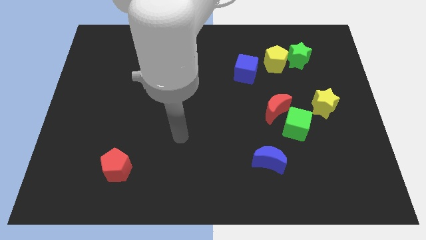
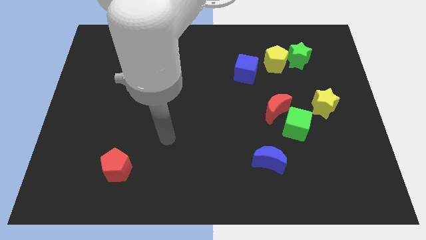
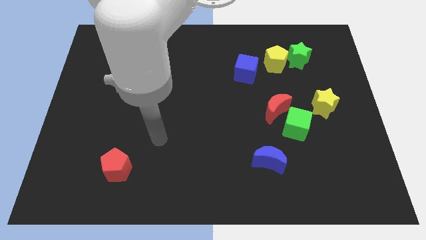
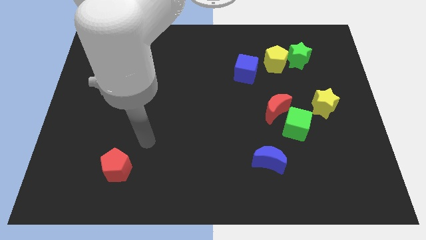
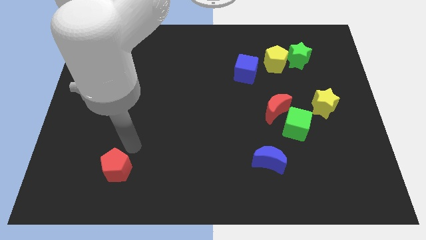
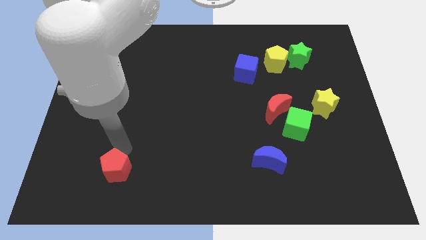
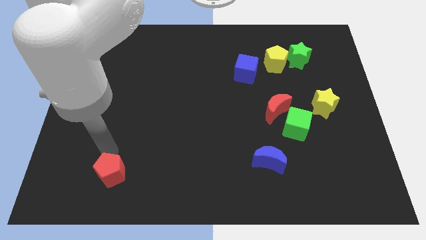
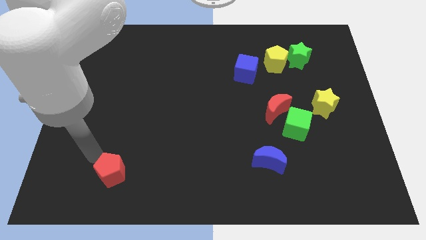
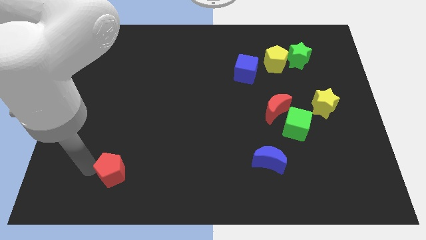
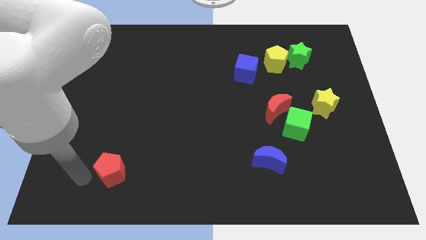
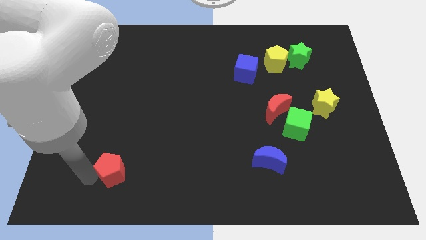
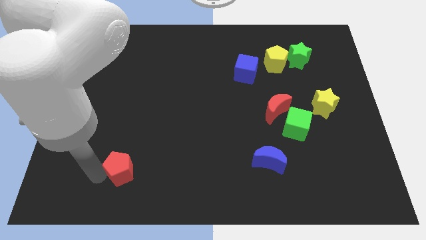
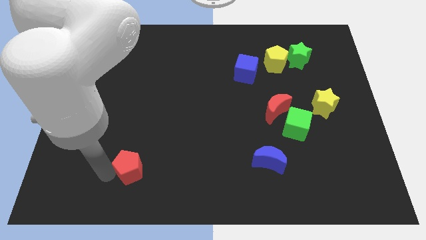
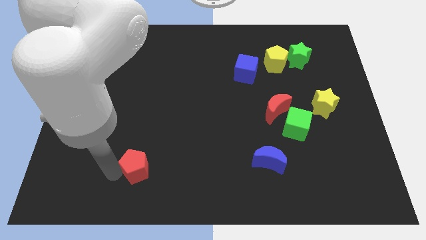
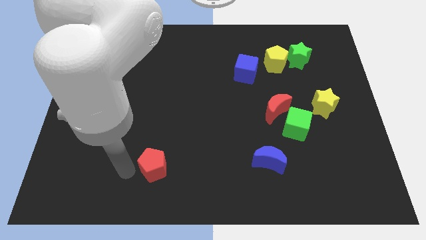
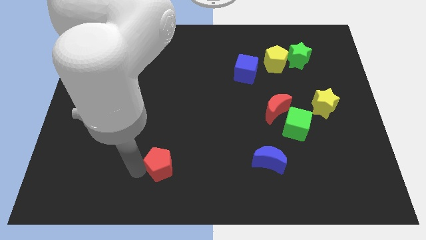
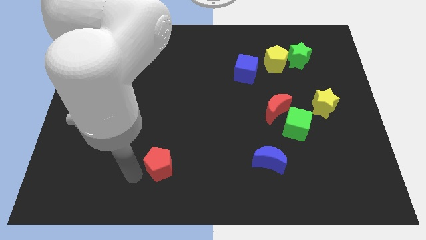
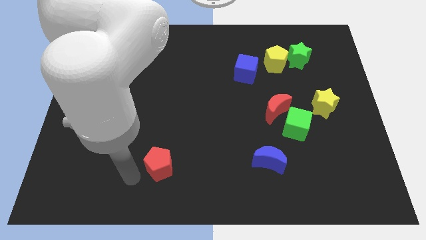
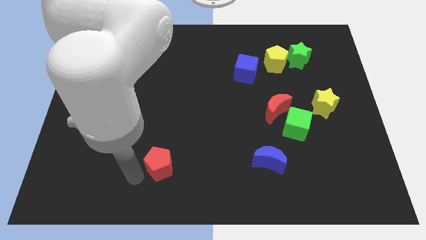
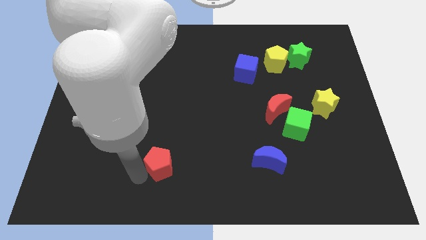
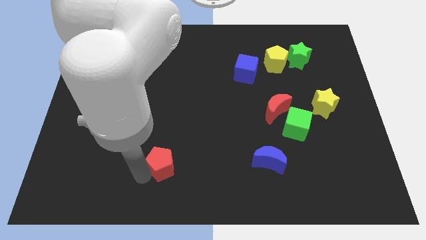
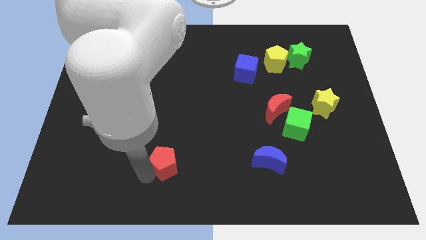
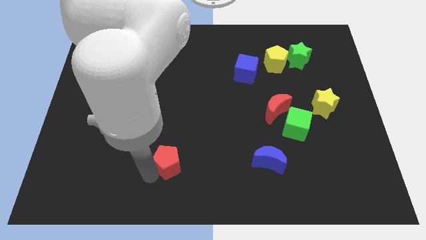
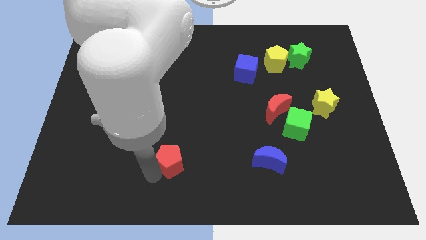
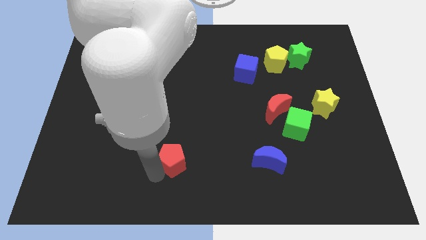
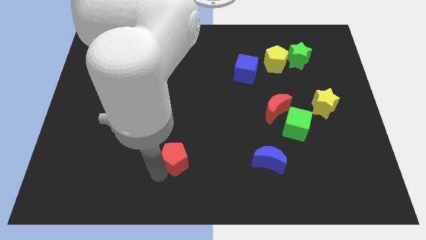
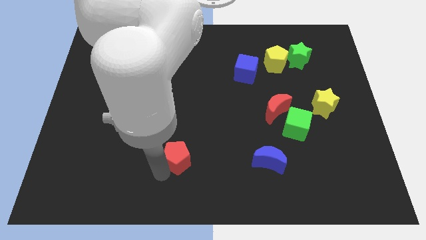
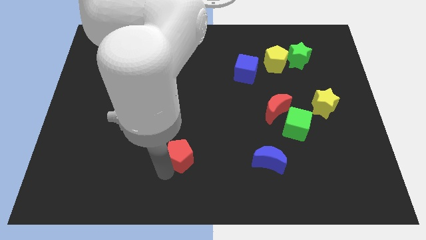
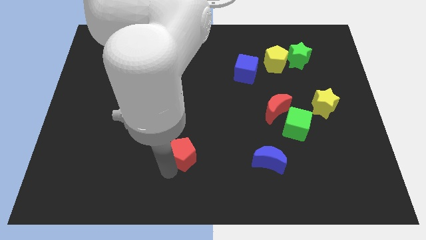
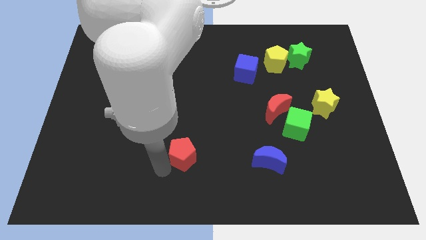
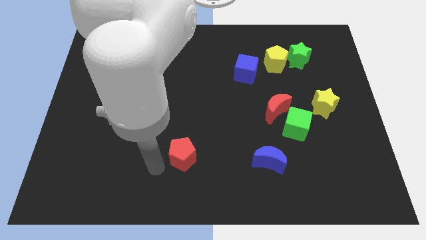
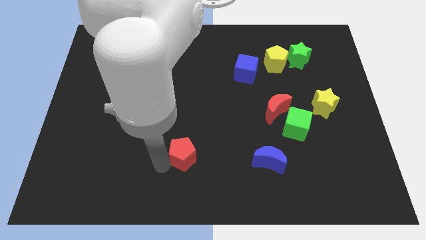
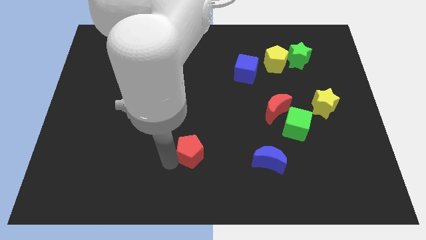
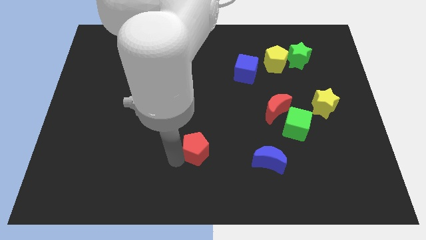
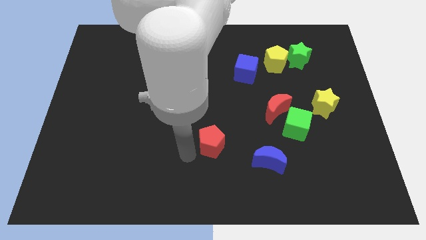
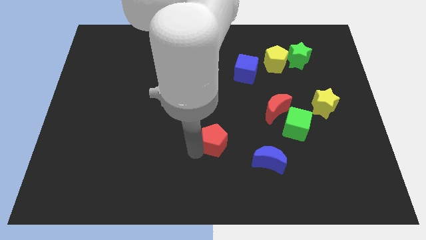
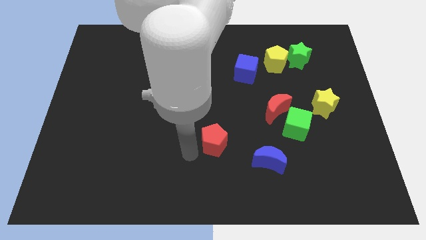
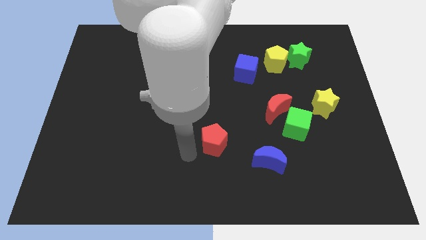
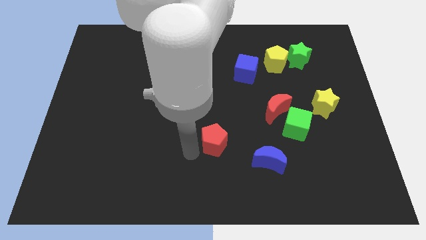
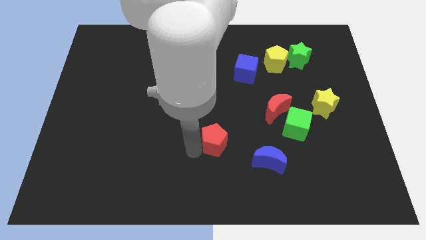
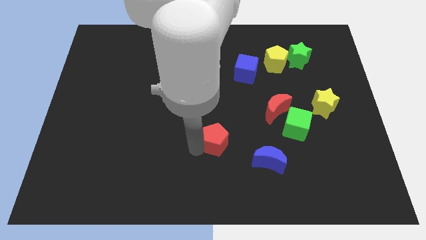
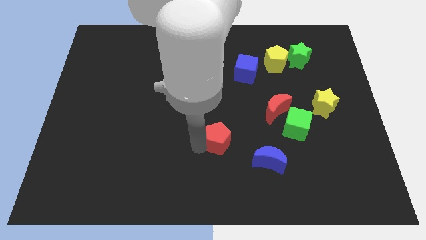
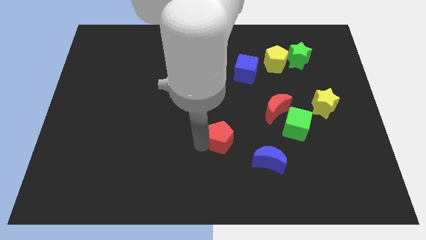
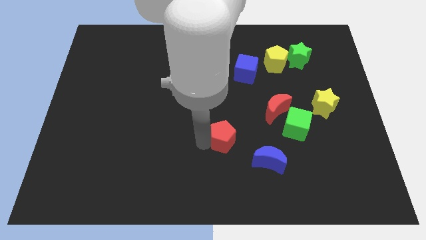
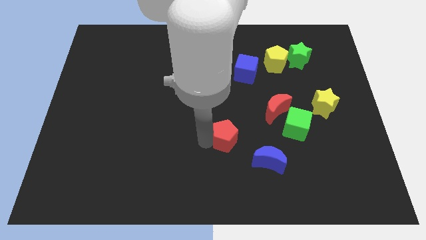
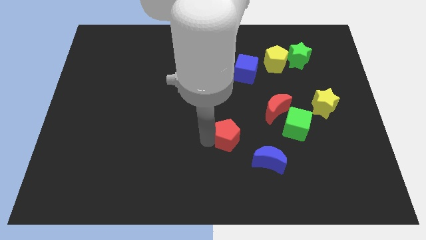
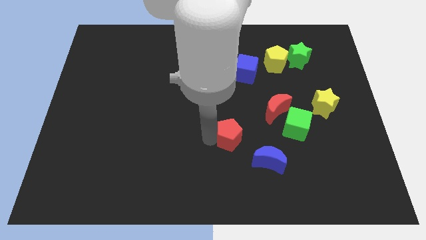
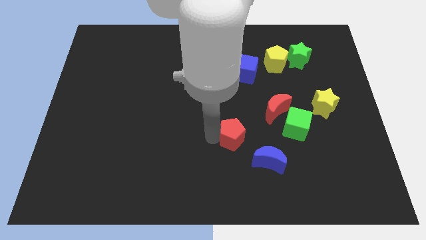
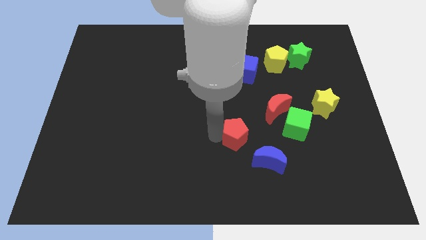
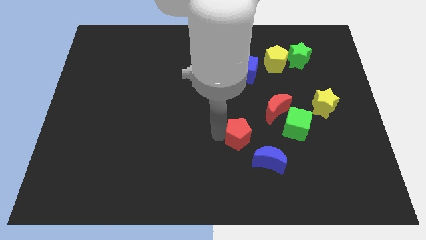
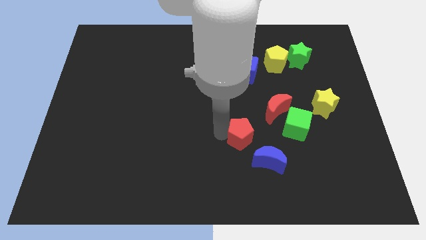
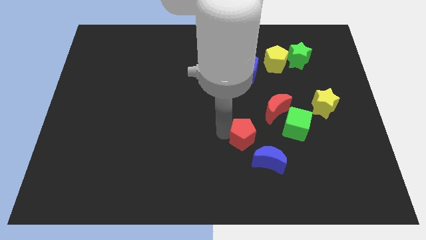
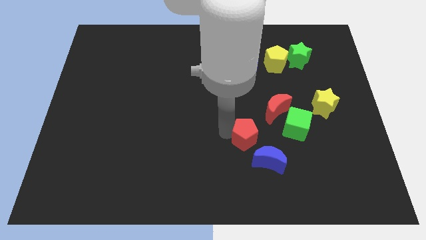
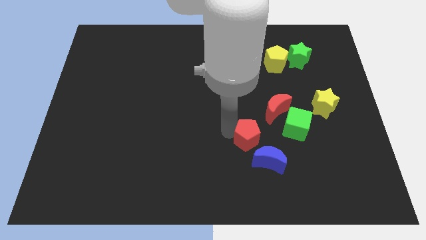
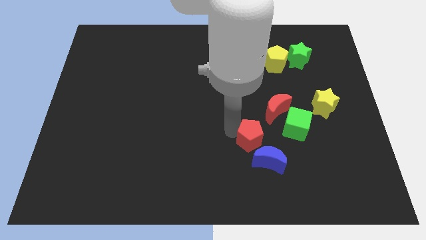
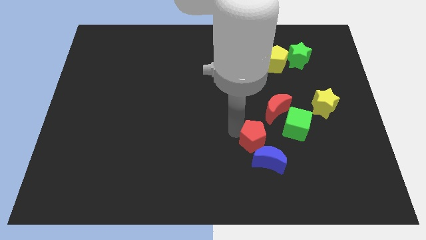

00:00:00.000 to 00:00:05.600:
move the red pentagon to the bottom left of the green cube

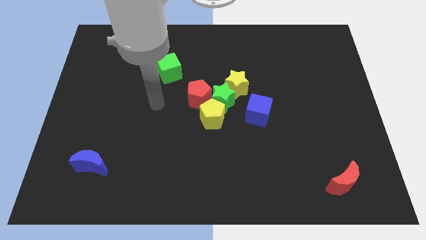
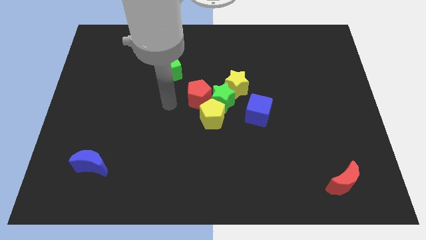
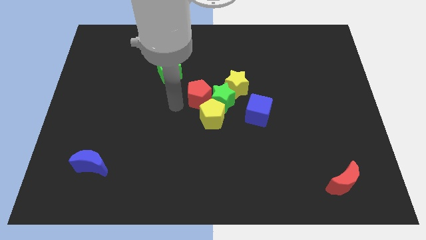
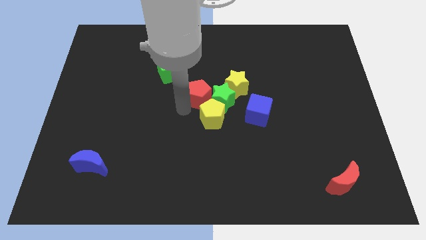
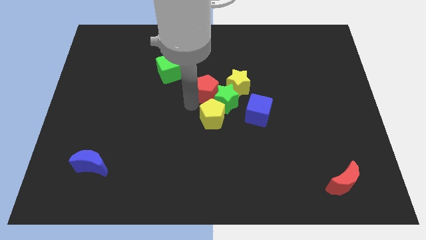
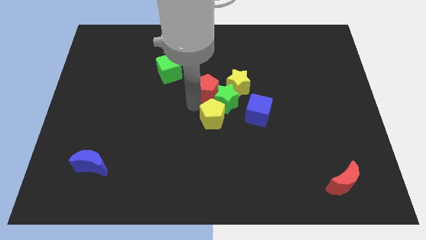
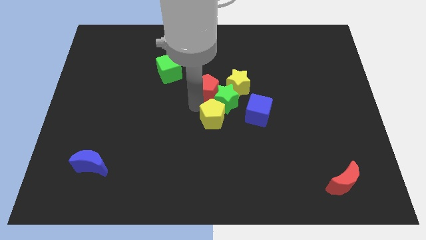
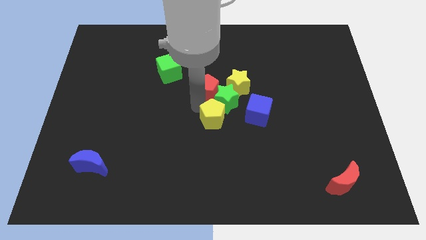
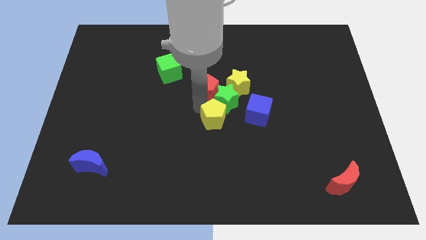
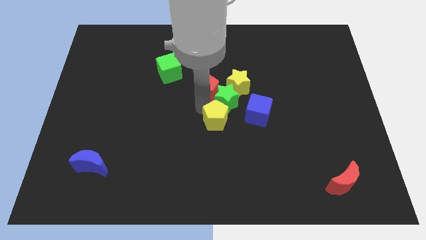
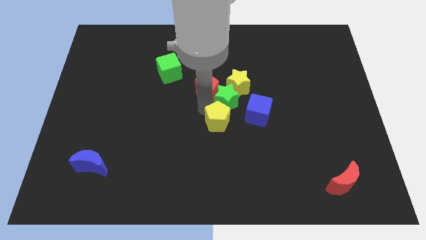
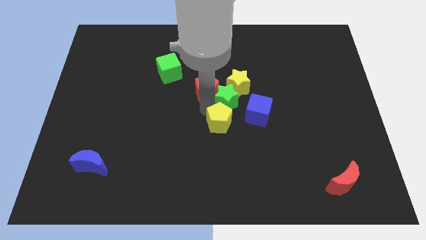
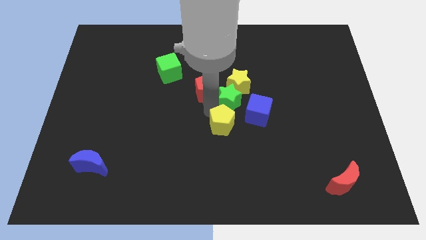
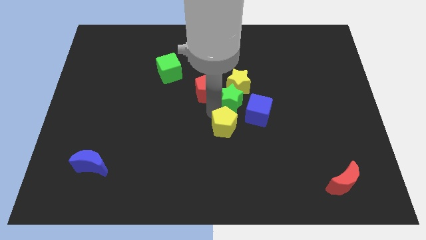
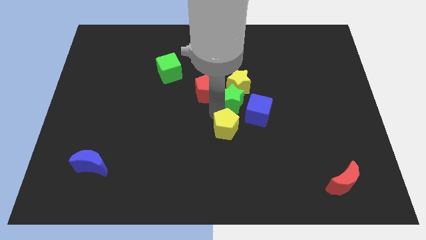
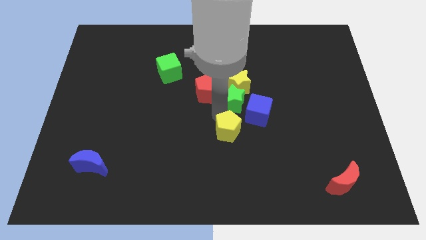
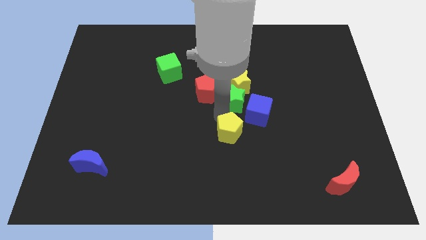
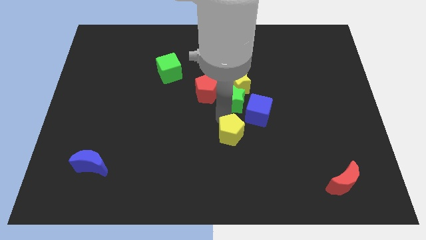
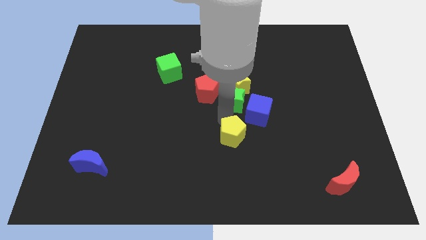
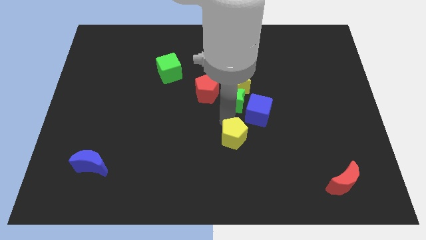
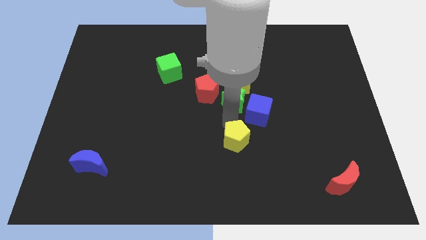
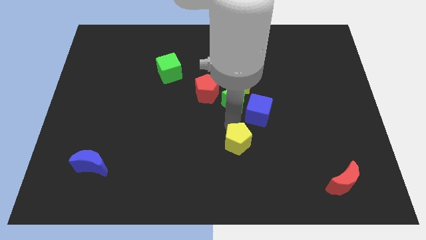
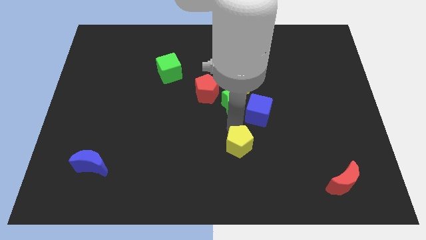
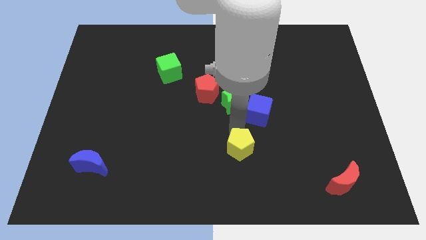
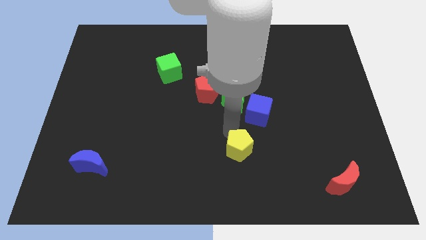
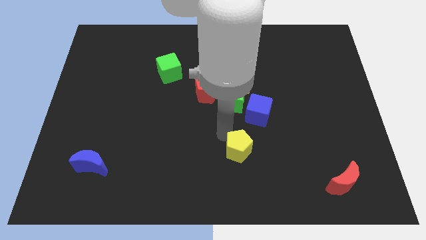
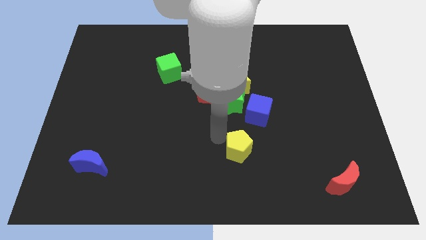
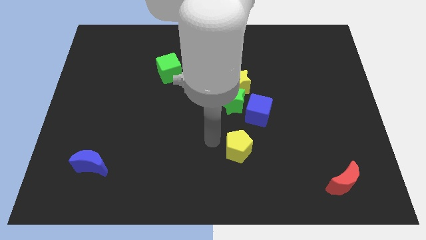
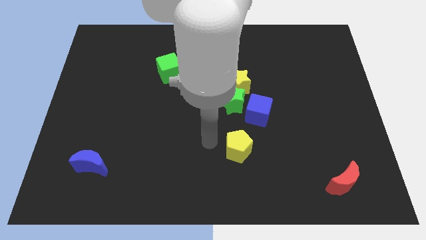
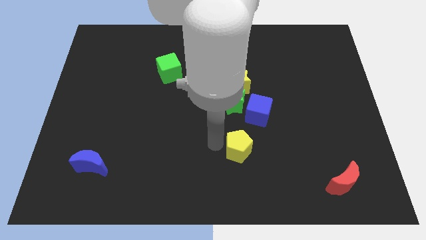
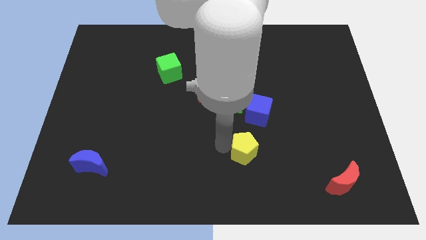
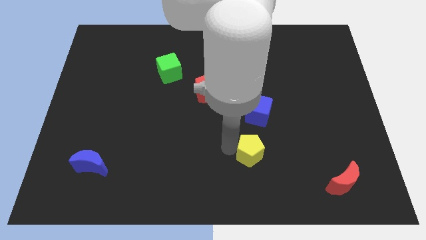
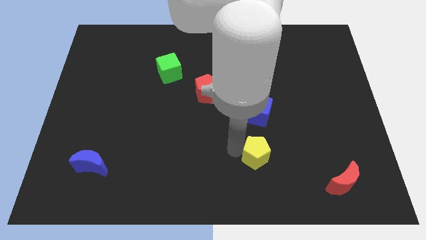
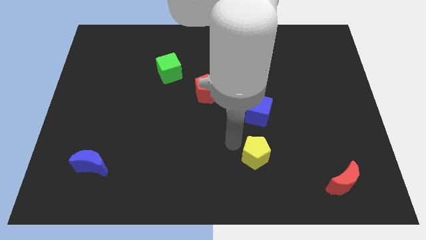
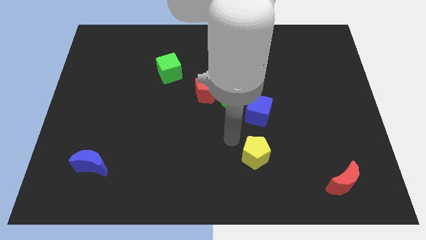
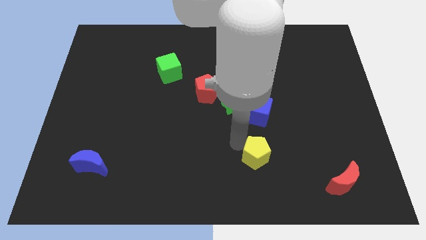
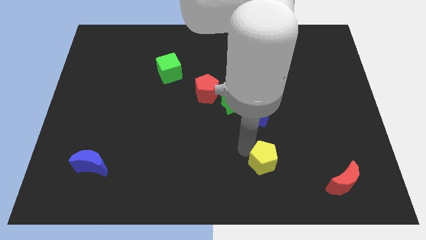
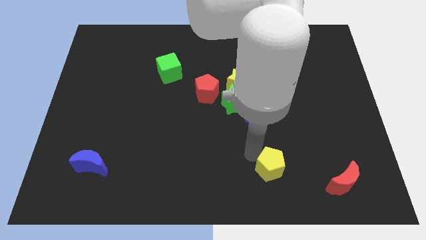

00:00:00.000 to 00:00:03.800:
push the yellow pentagon to the left of the red moon
